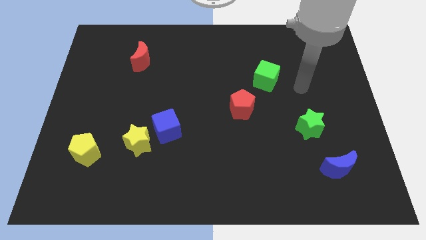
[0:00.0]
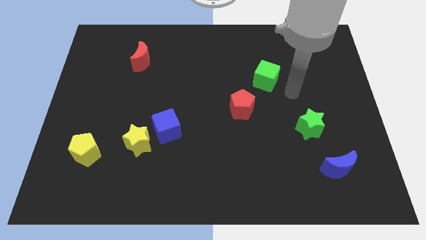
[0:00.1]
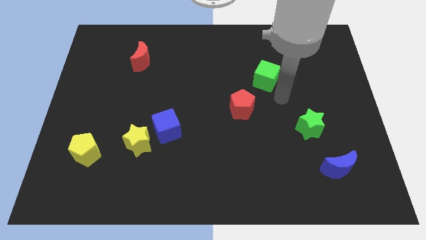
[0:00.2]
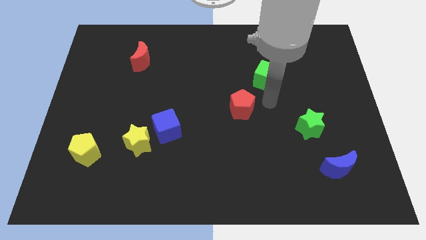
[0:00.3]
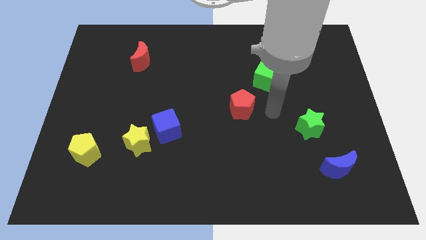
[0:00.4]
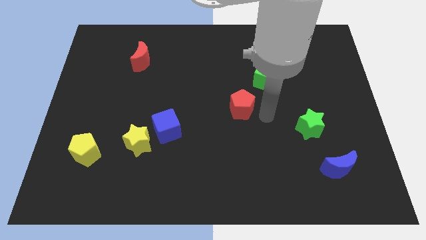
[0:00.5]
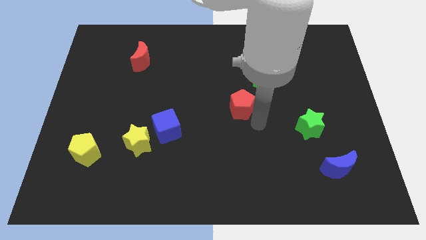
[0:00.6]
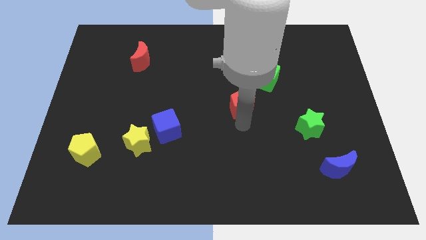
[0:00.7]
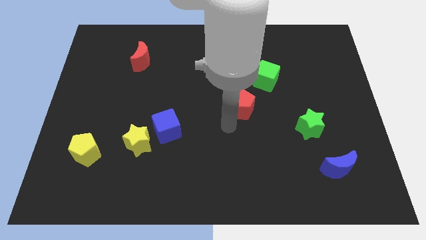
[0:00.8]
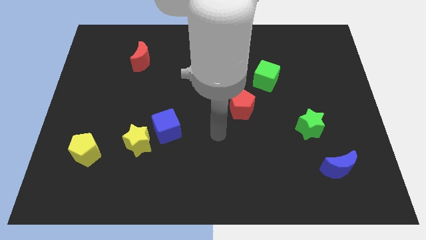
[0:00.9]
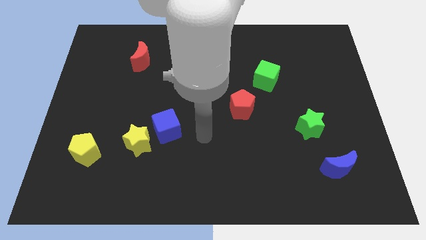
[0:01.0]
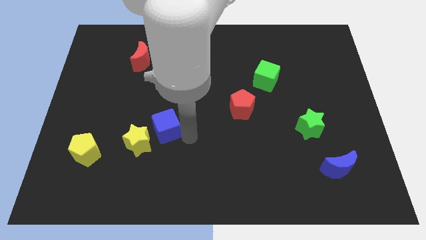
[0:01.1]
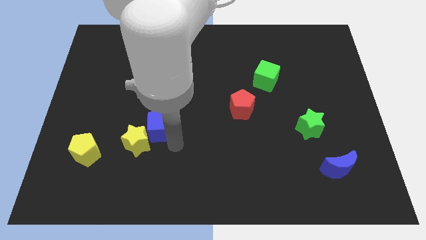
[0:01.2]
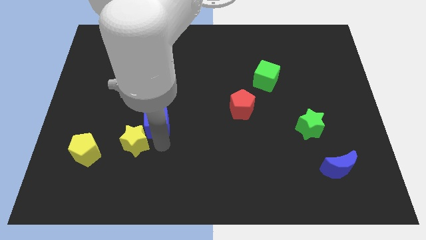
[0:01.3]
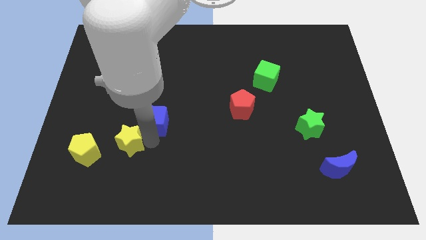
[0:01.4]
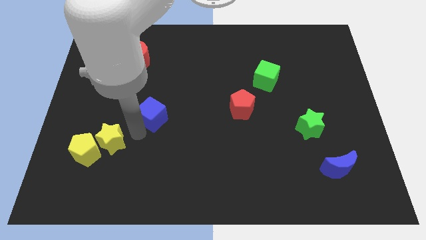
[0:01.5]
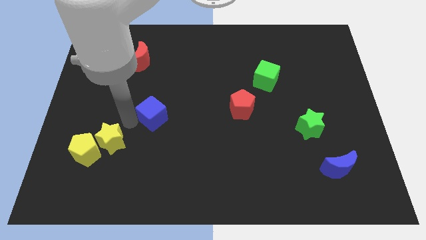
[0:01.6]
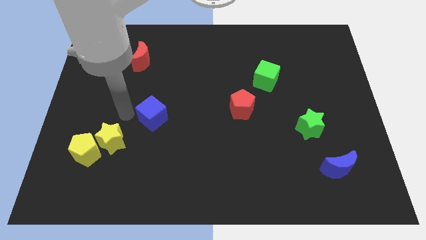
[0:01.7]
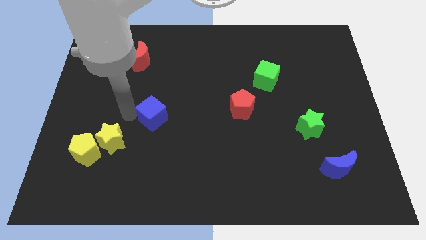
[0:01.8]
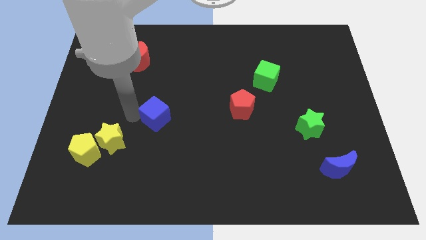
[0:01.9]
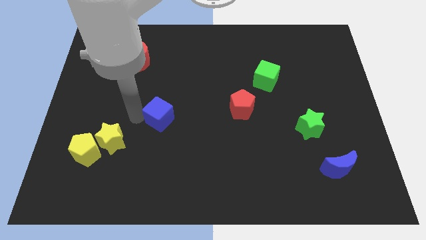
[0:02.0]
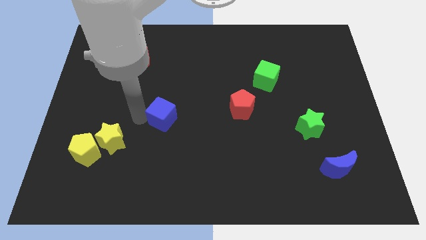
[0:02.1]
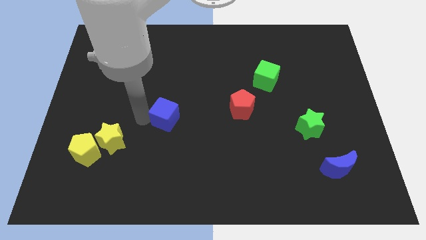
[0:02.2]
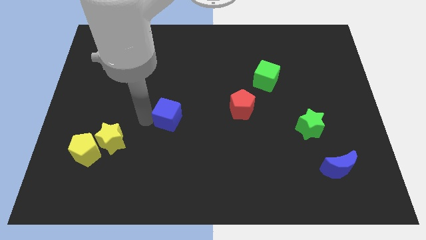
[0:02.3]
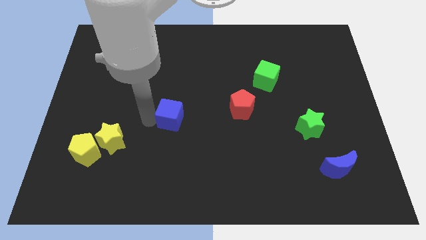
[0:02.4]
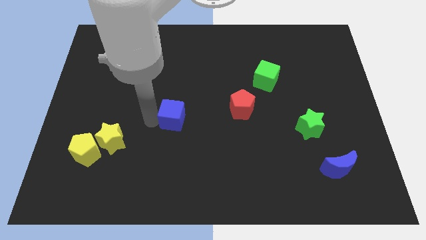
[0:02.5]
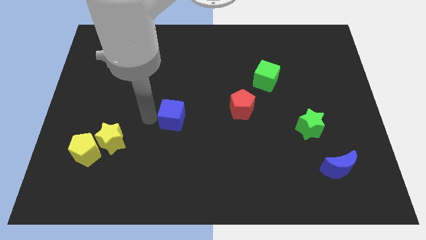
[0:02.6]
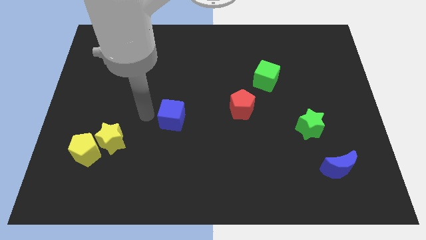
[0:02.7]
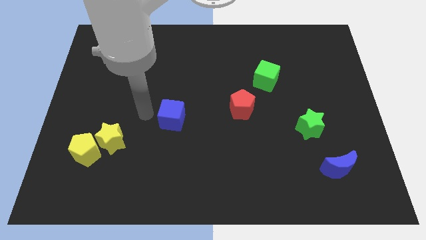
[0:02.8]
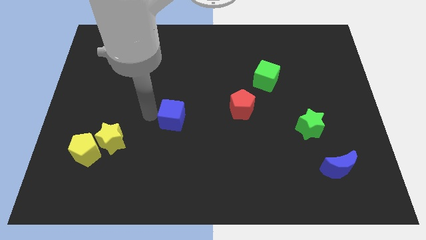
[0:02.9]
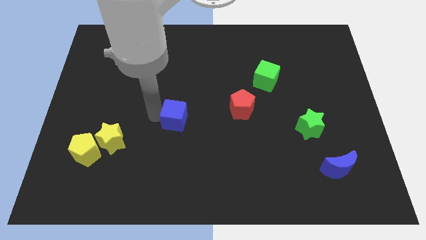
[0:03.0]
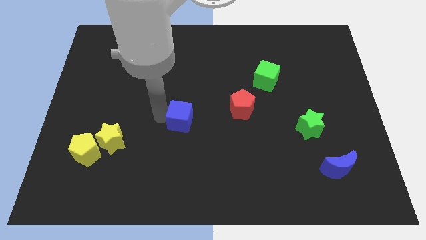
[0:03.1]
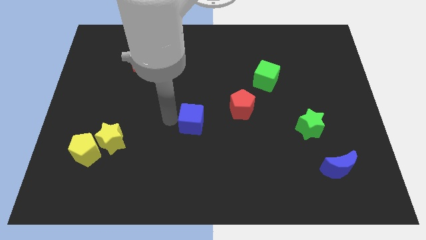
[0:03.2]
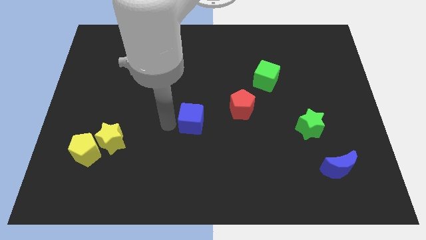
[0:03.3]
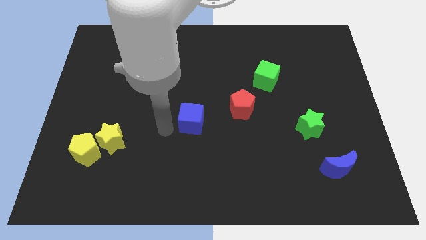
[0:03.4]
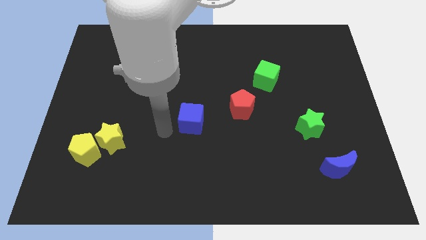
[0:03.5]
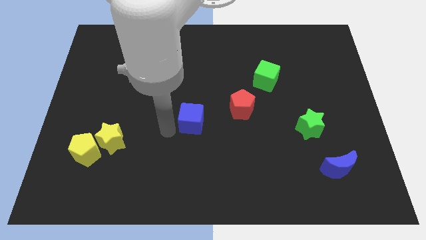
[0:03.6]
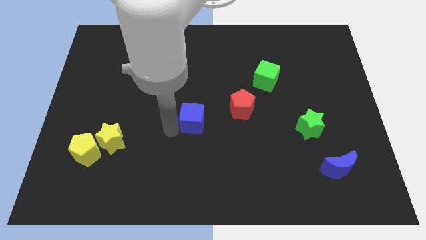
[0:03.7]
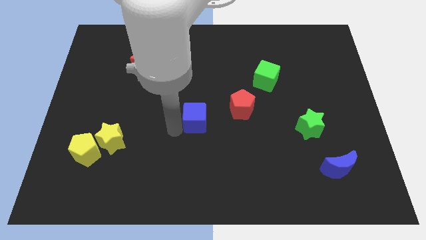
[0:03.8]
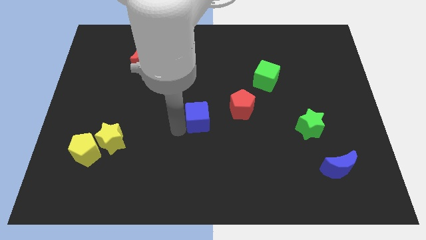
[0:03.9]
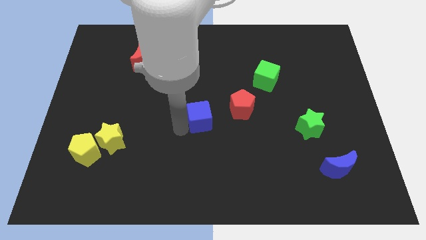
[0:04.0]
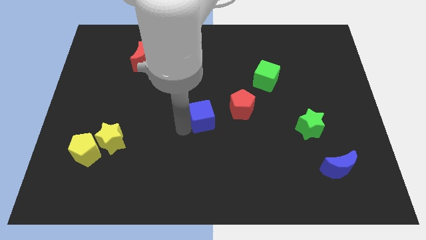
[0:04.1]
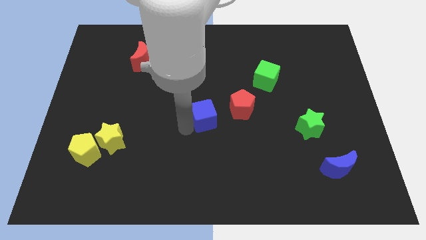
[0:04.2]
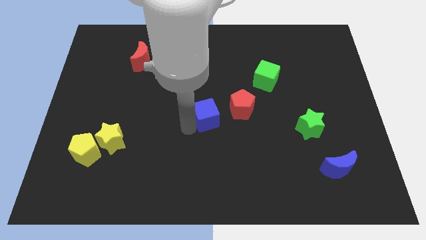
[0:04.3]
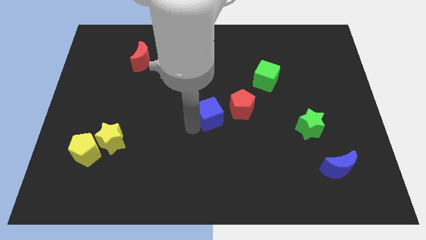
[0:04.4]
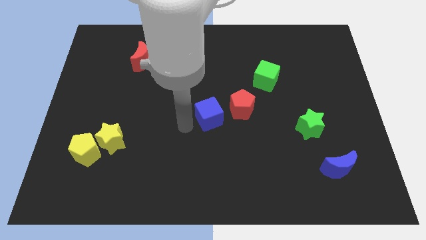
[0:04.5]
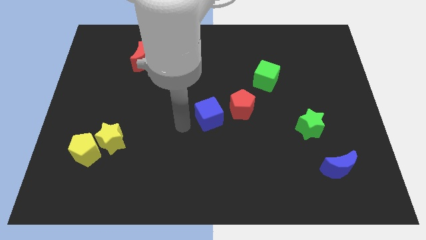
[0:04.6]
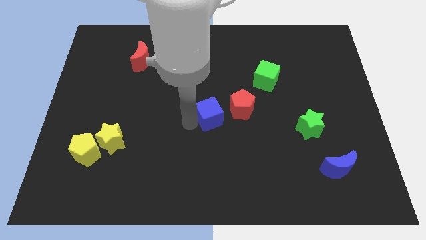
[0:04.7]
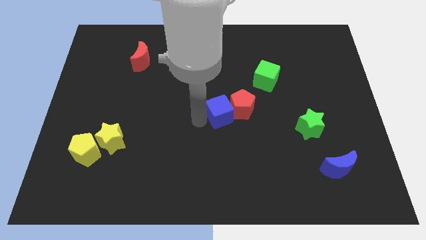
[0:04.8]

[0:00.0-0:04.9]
put the blue cube to the red pentagon

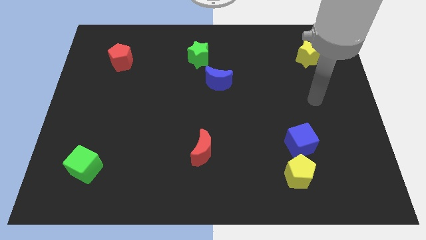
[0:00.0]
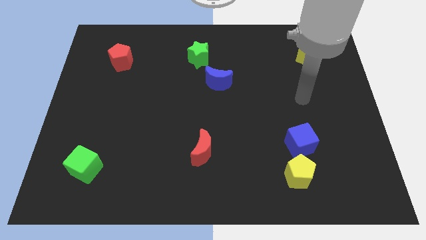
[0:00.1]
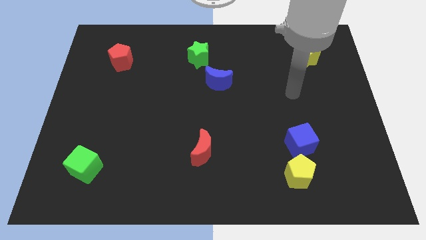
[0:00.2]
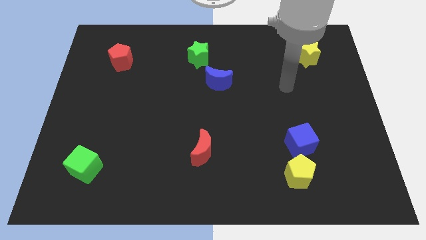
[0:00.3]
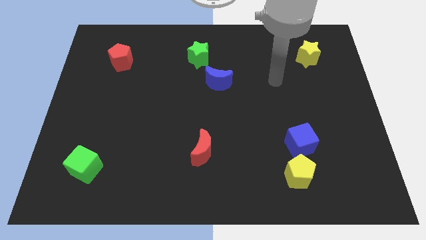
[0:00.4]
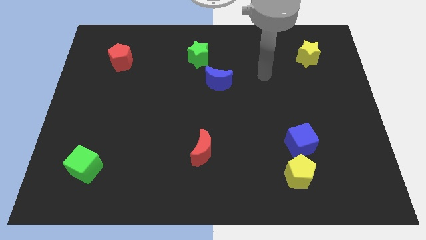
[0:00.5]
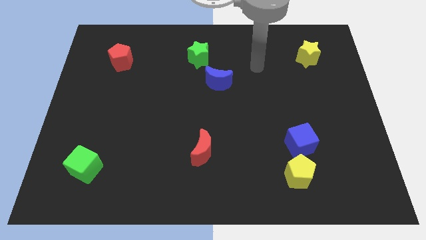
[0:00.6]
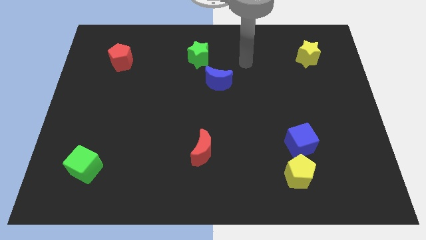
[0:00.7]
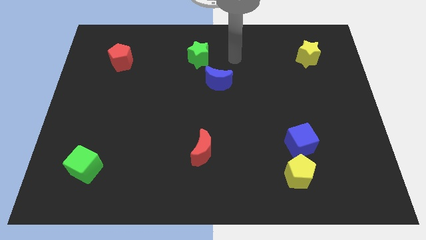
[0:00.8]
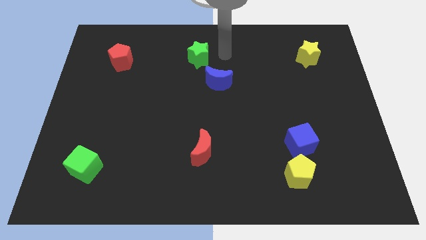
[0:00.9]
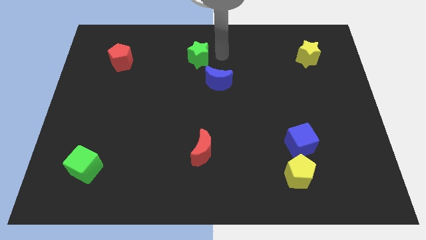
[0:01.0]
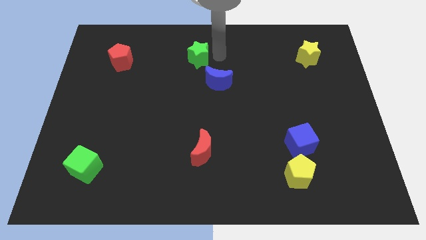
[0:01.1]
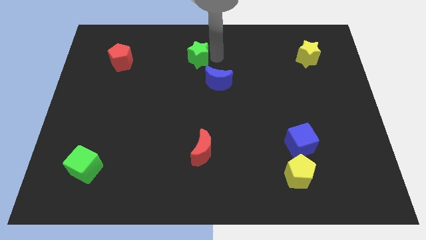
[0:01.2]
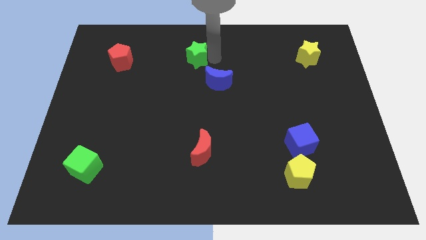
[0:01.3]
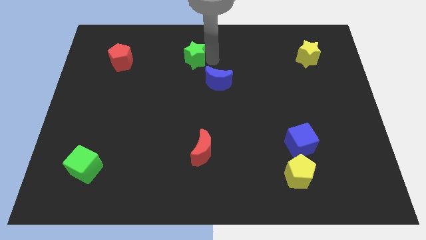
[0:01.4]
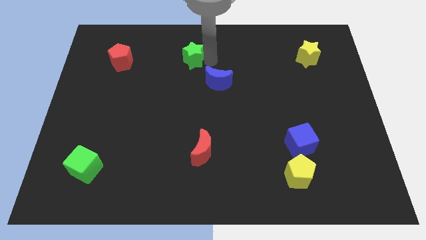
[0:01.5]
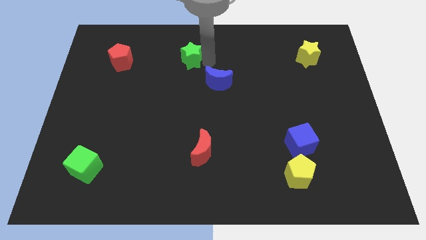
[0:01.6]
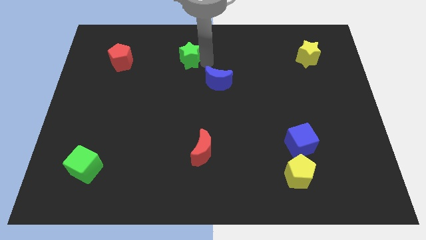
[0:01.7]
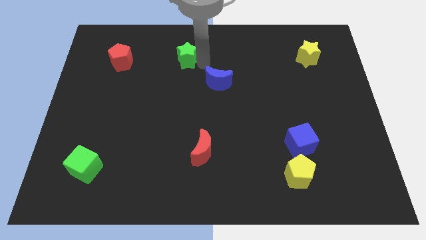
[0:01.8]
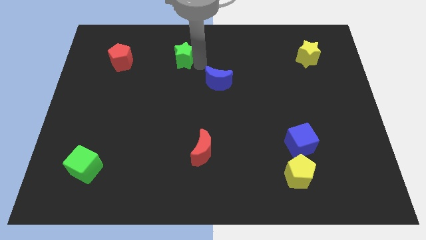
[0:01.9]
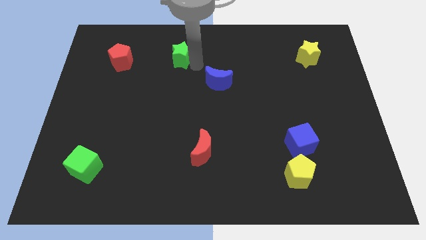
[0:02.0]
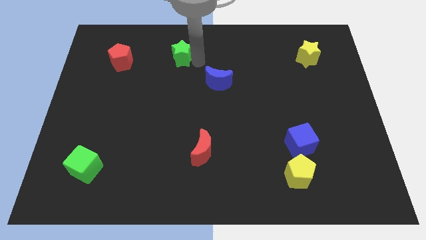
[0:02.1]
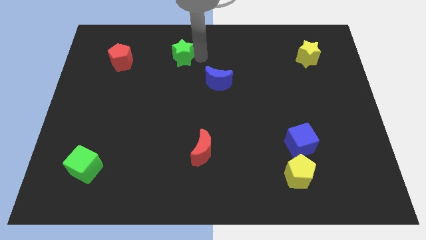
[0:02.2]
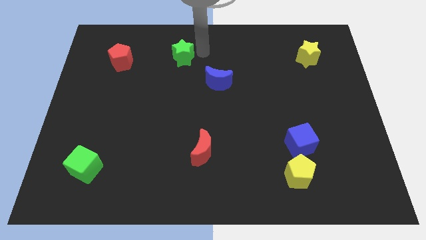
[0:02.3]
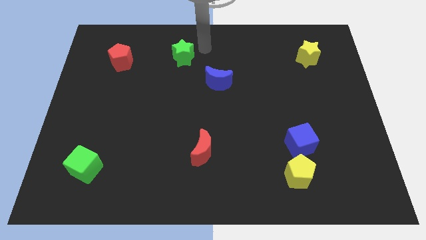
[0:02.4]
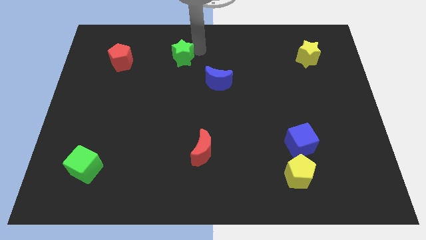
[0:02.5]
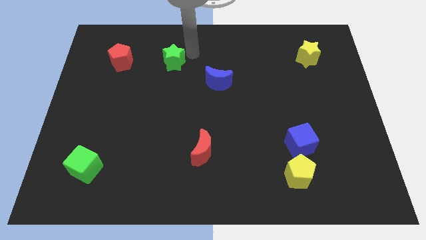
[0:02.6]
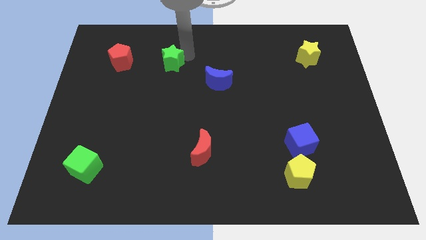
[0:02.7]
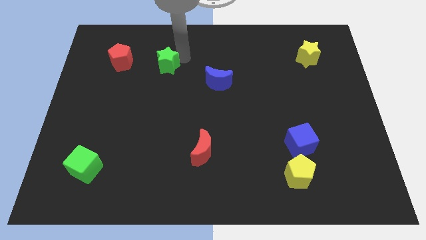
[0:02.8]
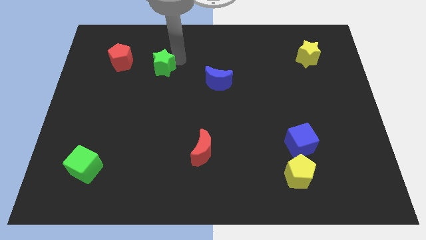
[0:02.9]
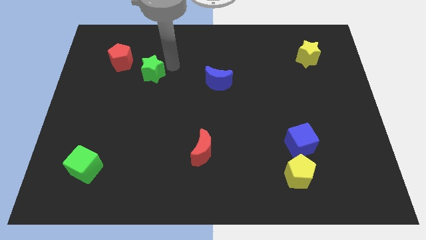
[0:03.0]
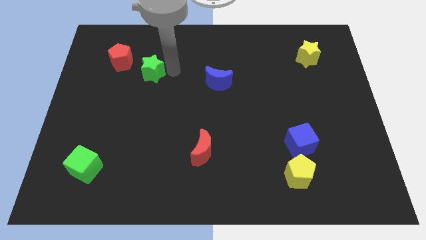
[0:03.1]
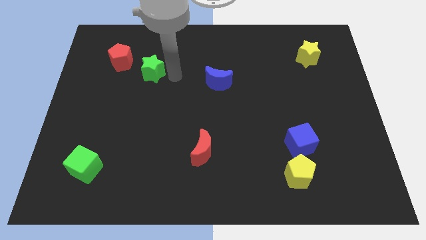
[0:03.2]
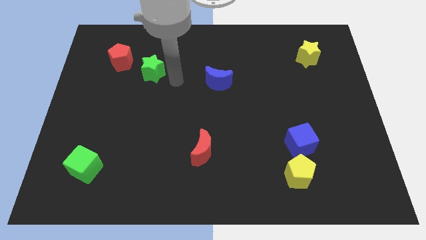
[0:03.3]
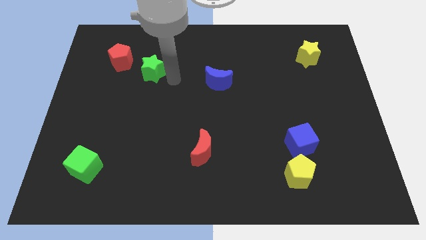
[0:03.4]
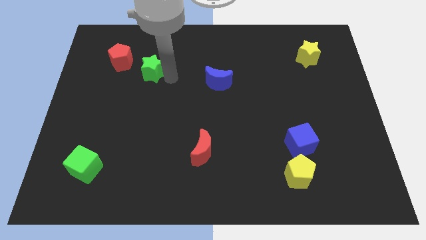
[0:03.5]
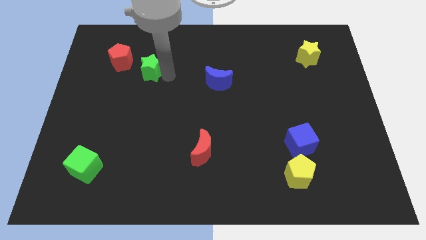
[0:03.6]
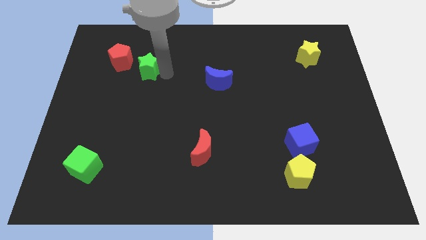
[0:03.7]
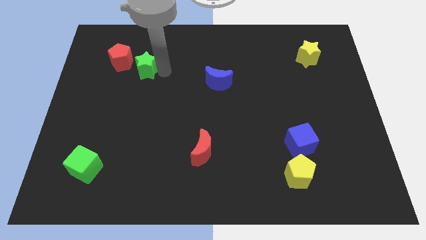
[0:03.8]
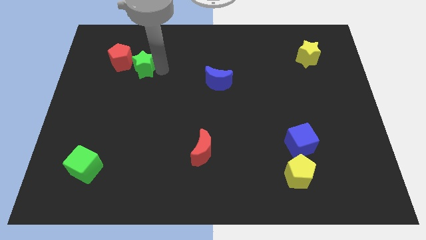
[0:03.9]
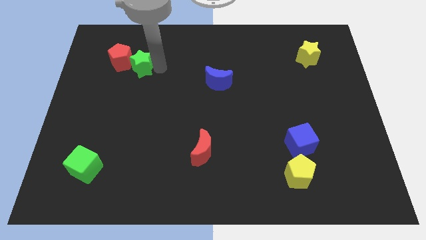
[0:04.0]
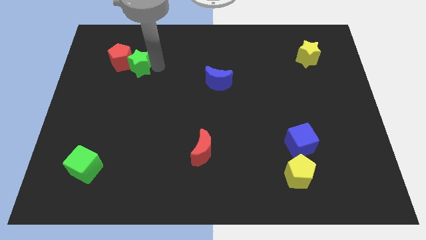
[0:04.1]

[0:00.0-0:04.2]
put the green star to the red pentagon
